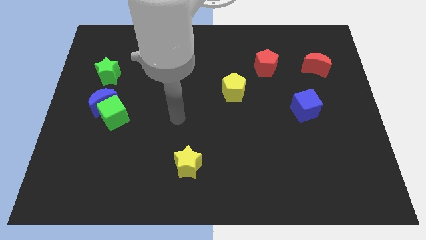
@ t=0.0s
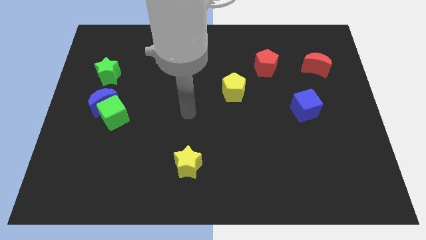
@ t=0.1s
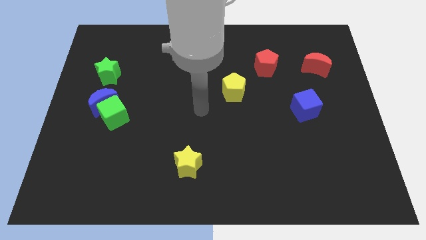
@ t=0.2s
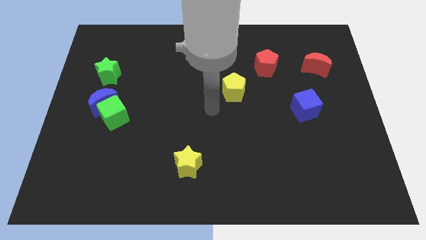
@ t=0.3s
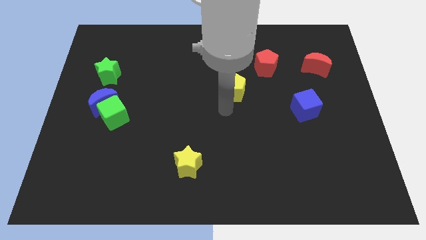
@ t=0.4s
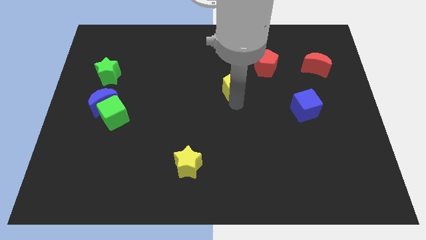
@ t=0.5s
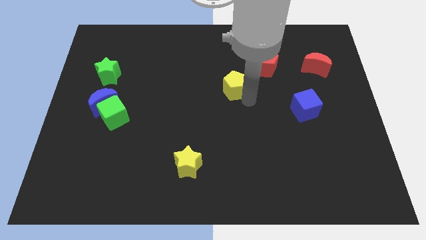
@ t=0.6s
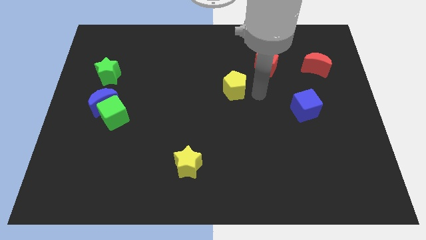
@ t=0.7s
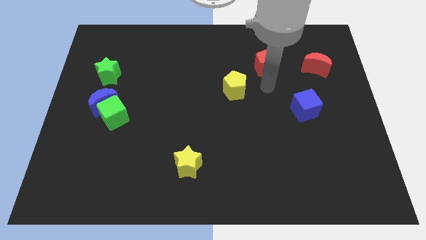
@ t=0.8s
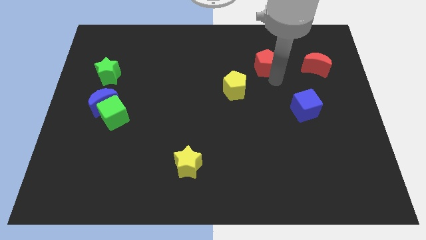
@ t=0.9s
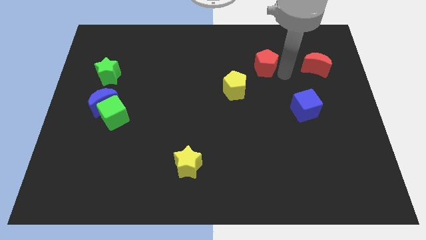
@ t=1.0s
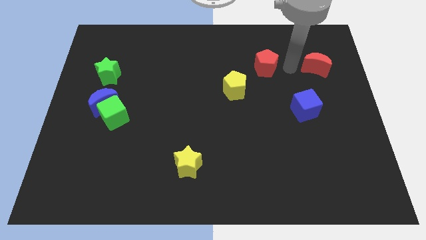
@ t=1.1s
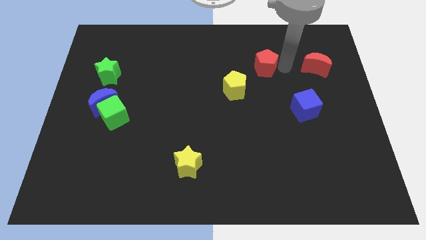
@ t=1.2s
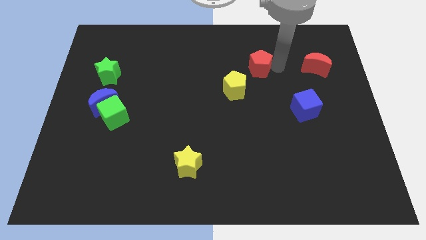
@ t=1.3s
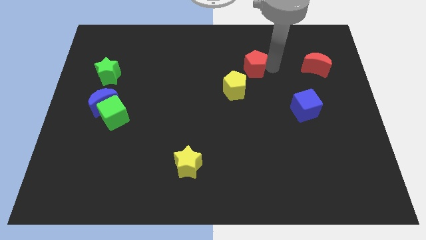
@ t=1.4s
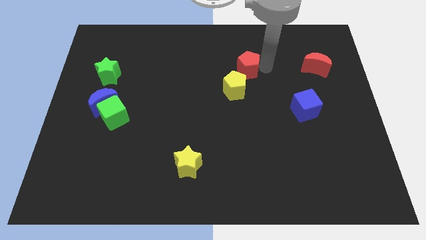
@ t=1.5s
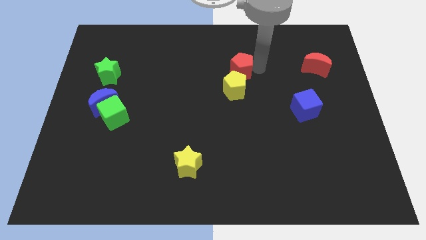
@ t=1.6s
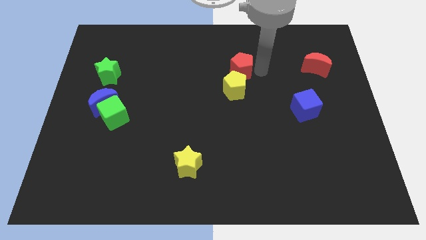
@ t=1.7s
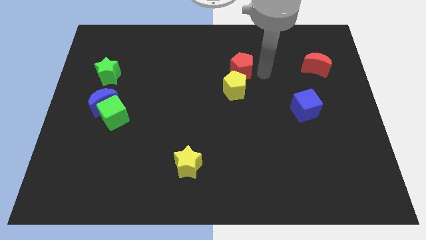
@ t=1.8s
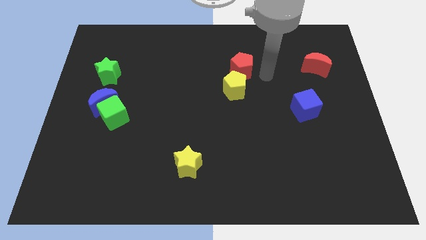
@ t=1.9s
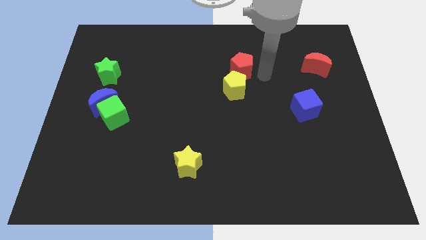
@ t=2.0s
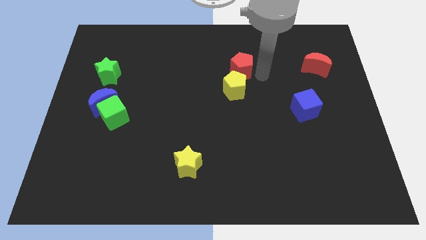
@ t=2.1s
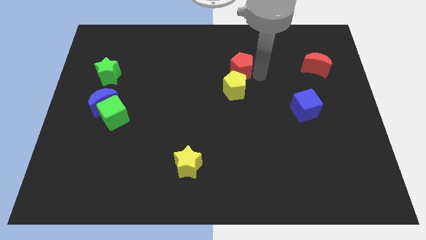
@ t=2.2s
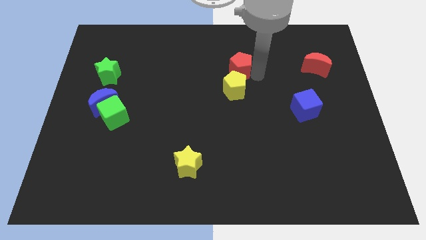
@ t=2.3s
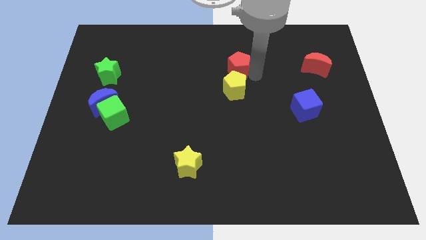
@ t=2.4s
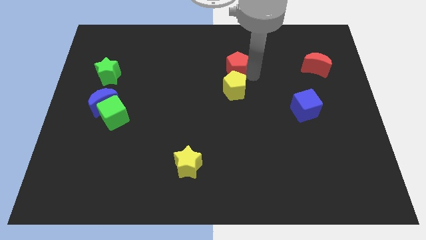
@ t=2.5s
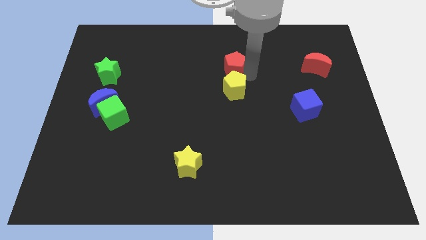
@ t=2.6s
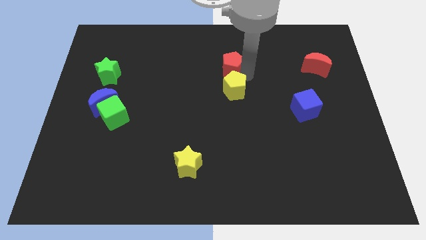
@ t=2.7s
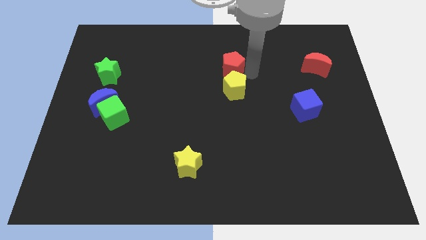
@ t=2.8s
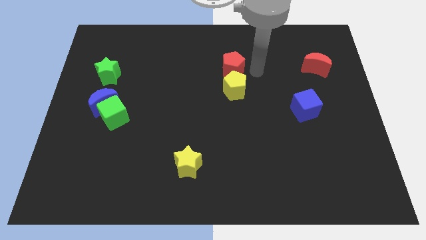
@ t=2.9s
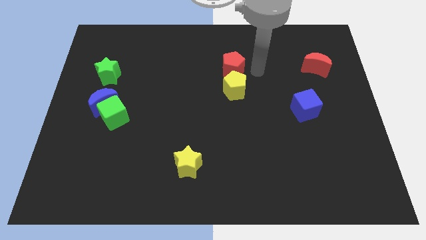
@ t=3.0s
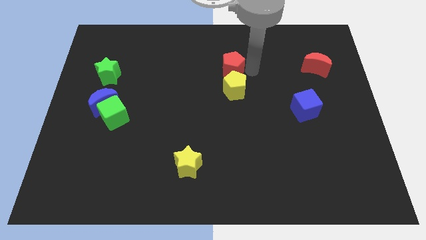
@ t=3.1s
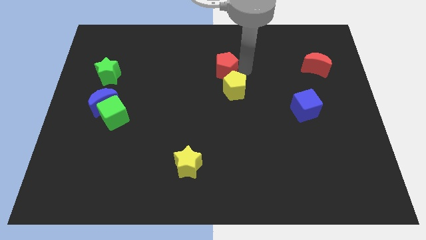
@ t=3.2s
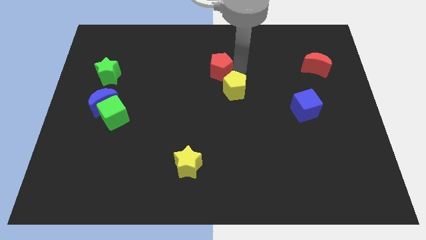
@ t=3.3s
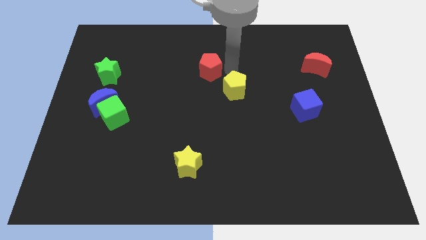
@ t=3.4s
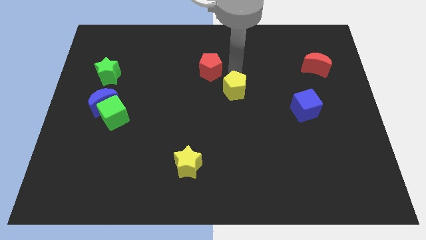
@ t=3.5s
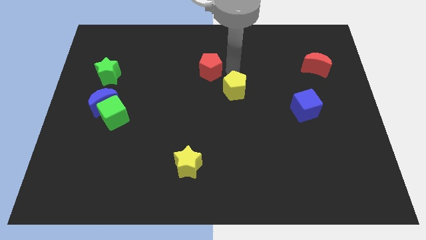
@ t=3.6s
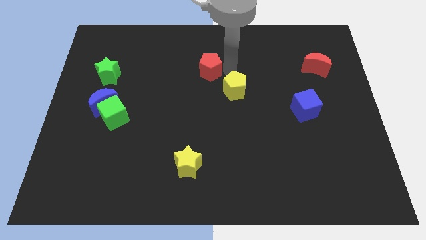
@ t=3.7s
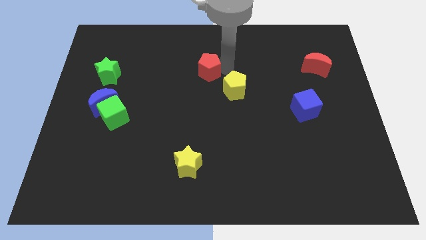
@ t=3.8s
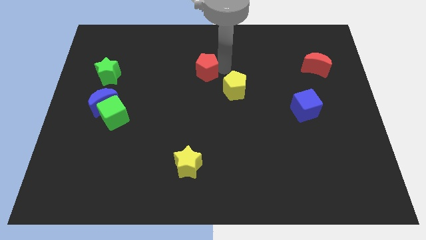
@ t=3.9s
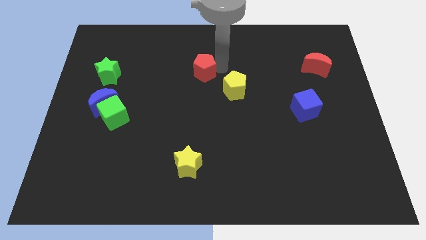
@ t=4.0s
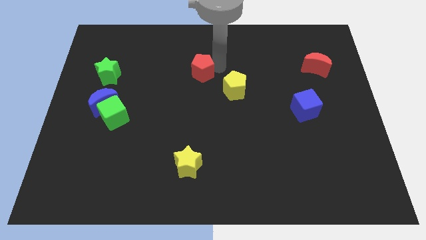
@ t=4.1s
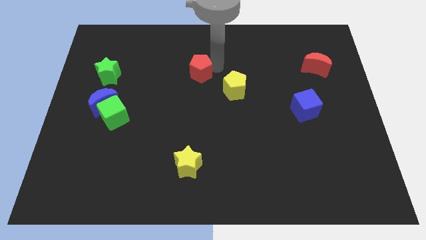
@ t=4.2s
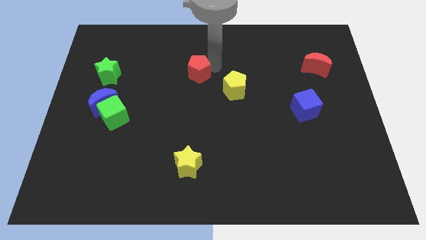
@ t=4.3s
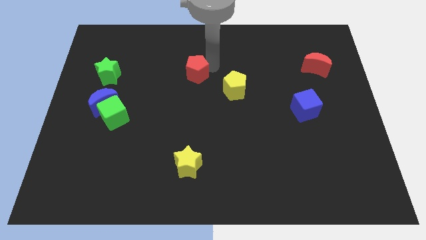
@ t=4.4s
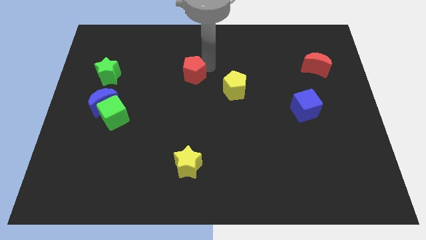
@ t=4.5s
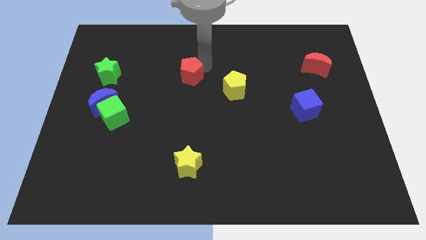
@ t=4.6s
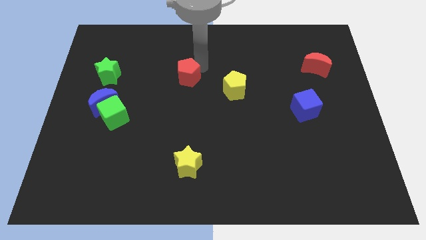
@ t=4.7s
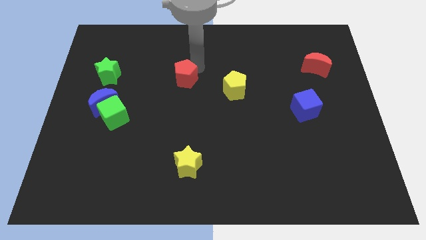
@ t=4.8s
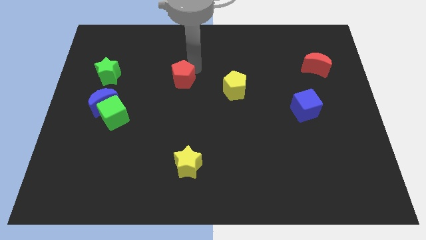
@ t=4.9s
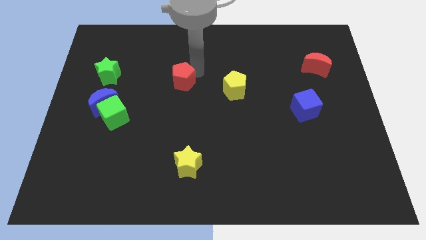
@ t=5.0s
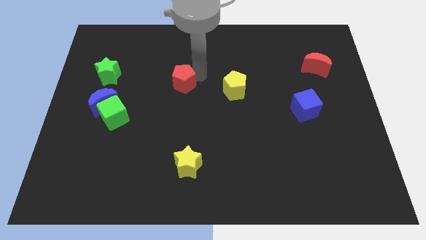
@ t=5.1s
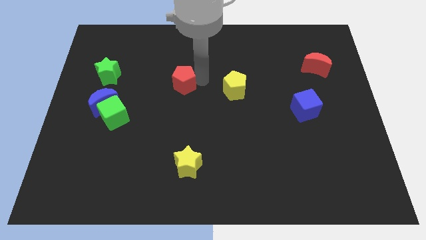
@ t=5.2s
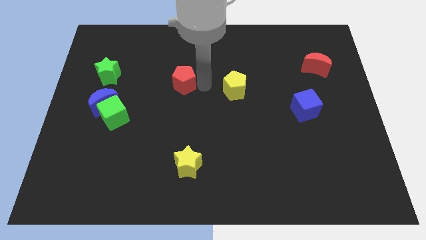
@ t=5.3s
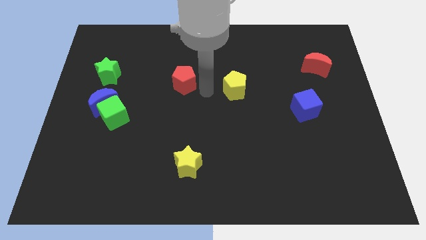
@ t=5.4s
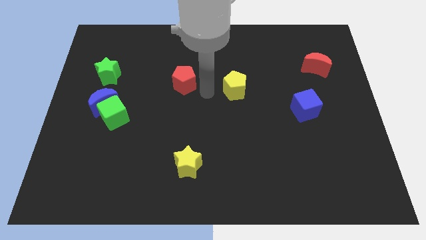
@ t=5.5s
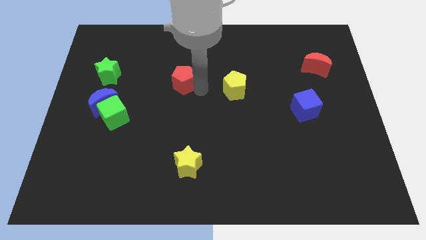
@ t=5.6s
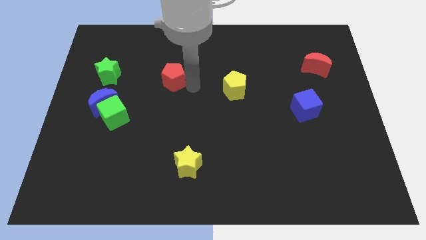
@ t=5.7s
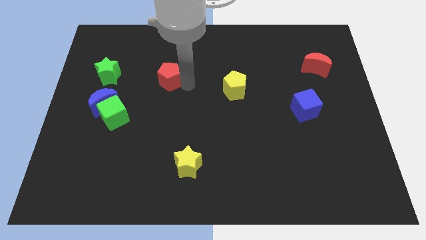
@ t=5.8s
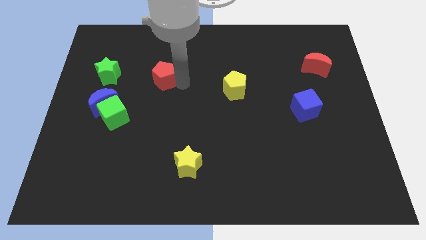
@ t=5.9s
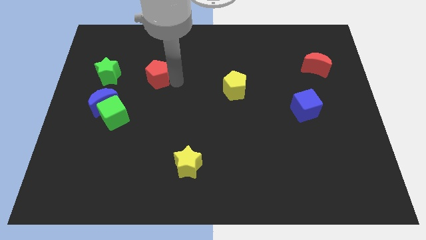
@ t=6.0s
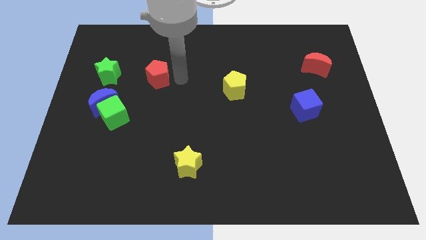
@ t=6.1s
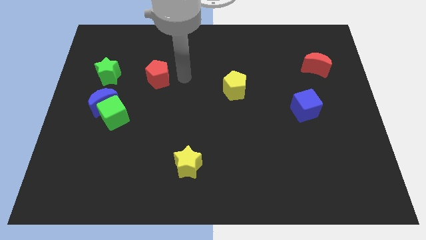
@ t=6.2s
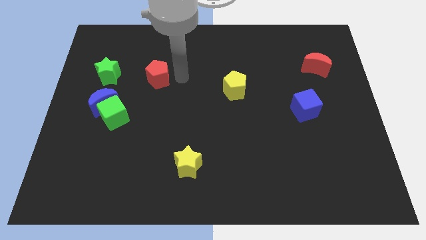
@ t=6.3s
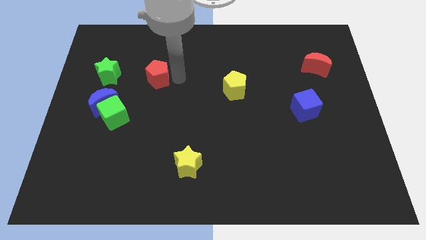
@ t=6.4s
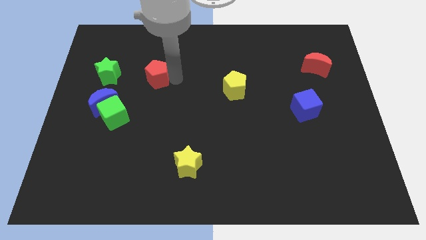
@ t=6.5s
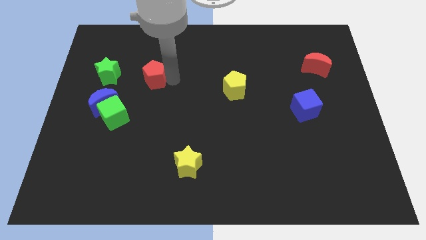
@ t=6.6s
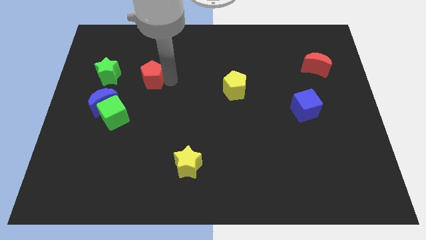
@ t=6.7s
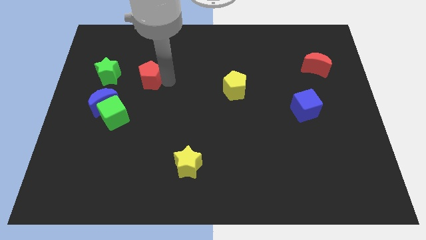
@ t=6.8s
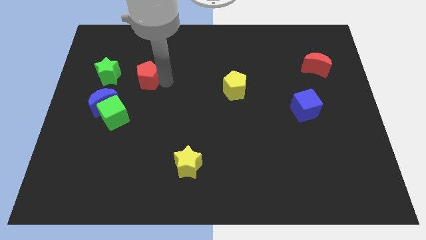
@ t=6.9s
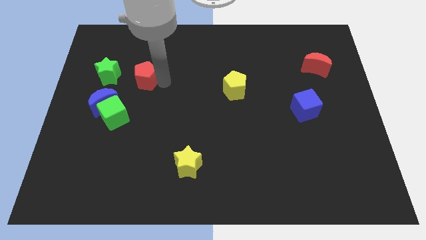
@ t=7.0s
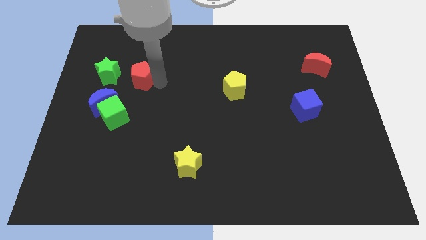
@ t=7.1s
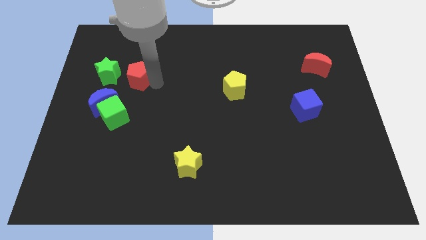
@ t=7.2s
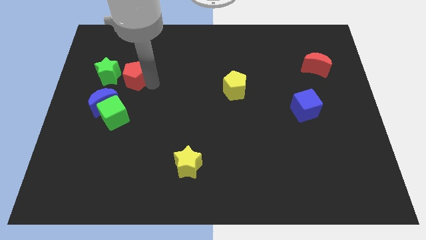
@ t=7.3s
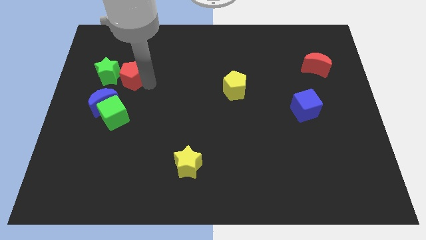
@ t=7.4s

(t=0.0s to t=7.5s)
push the red pentagon next to the green star
